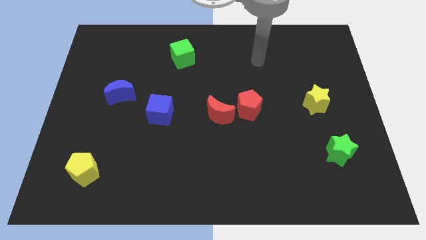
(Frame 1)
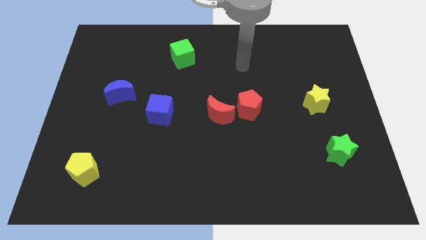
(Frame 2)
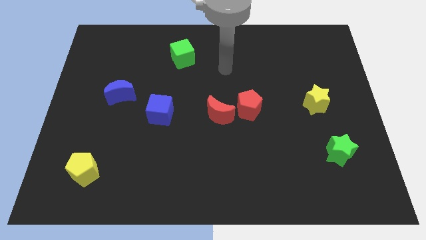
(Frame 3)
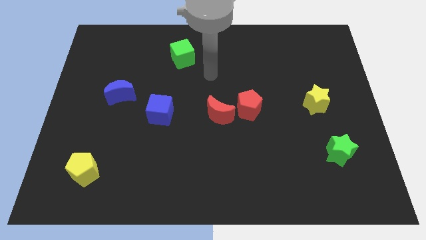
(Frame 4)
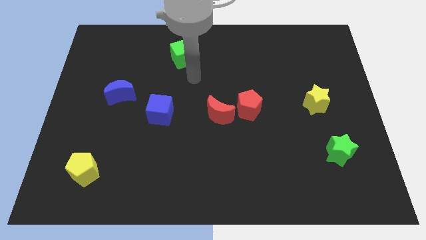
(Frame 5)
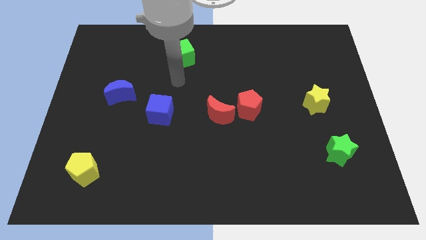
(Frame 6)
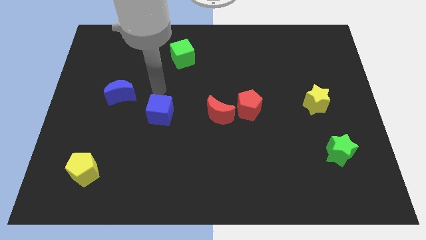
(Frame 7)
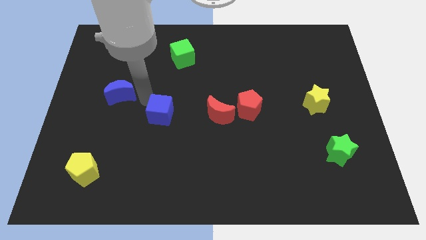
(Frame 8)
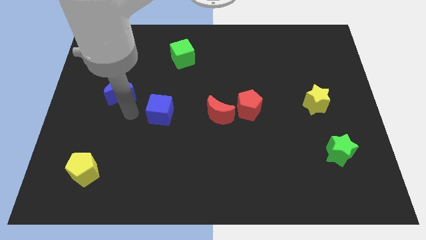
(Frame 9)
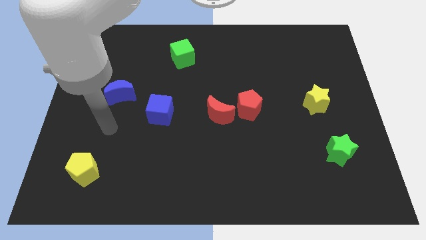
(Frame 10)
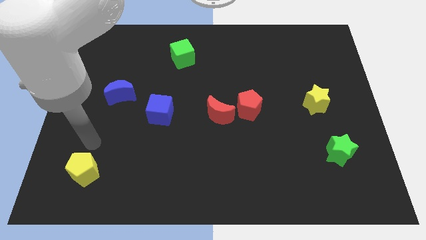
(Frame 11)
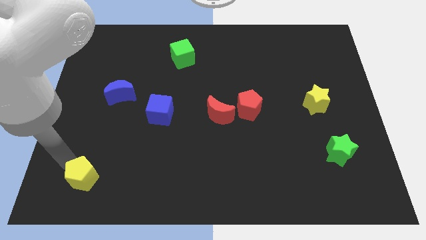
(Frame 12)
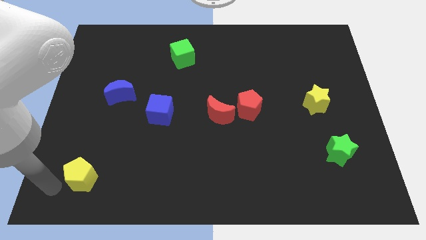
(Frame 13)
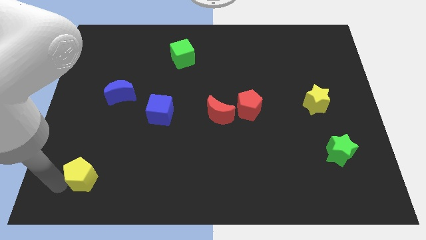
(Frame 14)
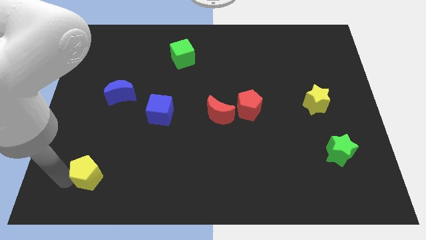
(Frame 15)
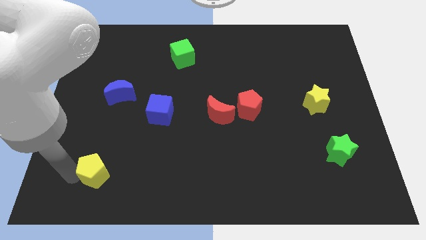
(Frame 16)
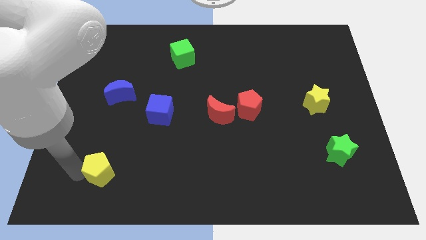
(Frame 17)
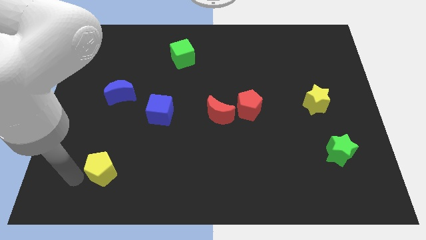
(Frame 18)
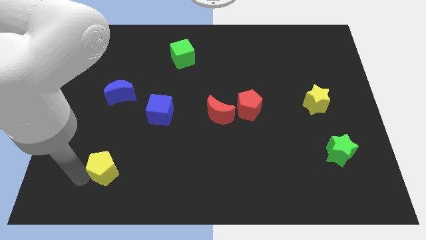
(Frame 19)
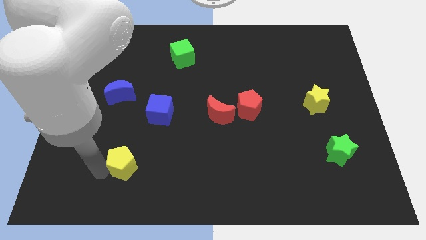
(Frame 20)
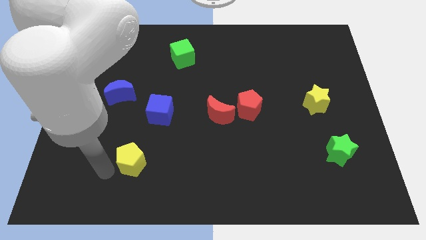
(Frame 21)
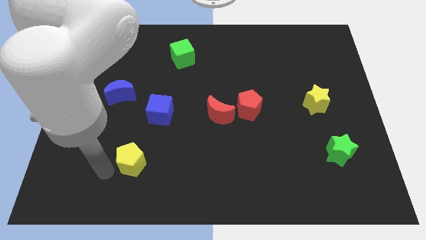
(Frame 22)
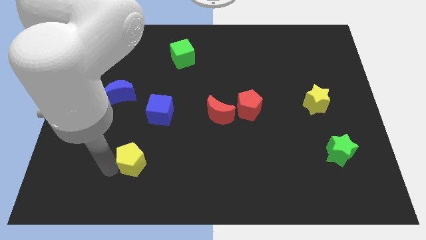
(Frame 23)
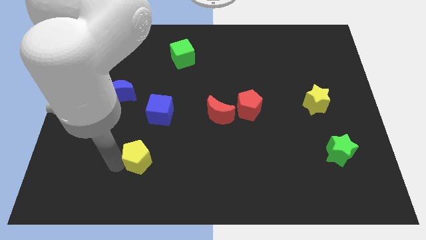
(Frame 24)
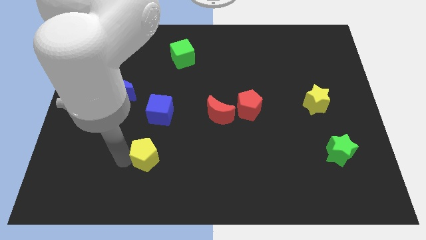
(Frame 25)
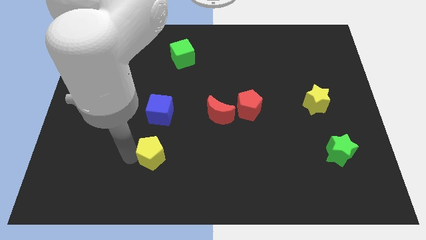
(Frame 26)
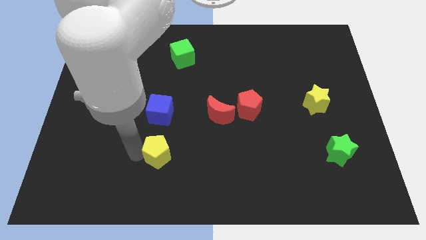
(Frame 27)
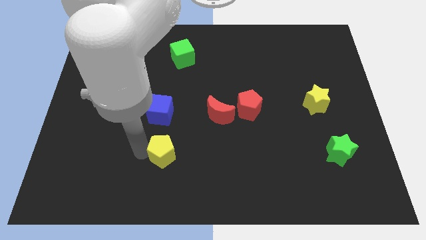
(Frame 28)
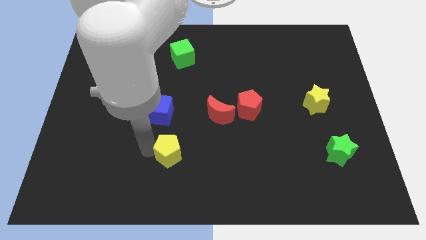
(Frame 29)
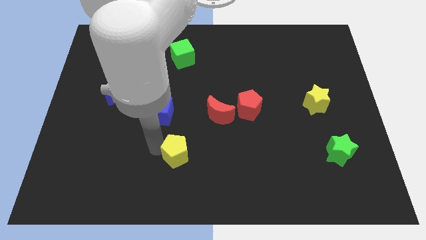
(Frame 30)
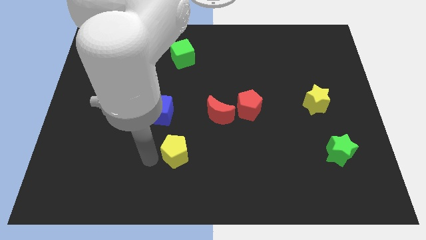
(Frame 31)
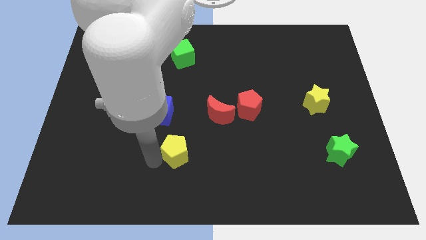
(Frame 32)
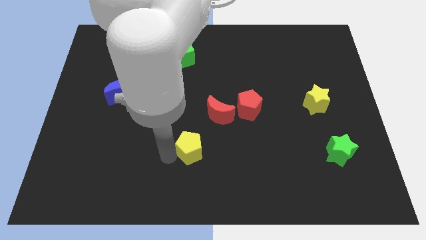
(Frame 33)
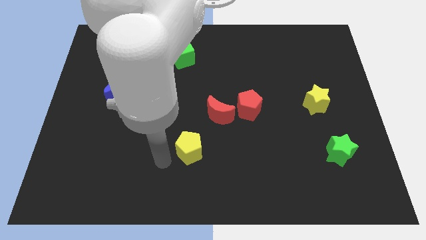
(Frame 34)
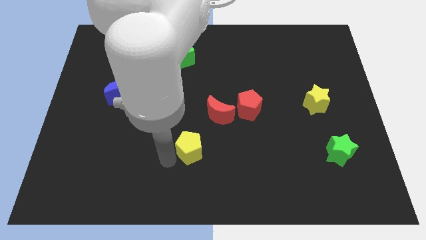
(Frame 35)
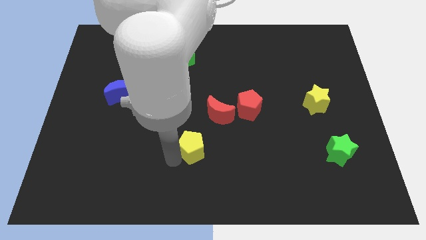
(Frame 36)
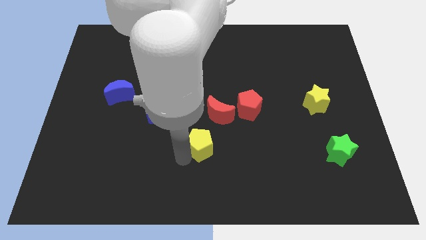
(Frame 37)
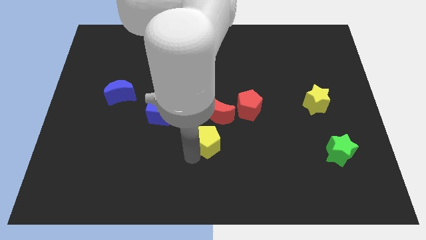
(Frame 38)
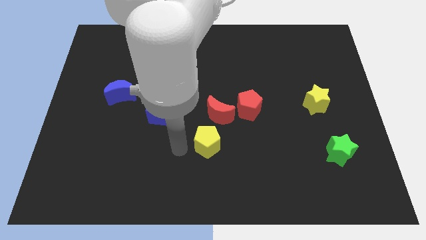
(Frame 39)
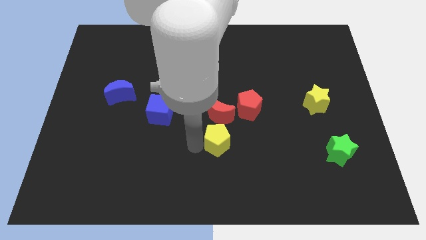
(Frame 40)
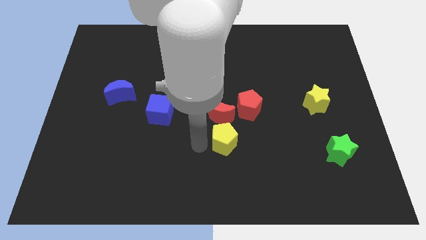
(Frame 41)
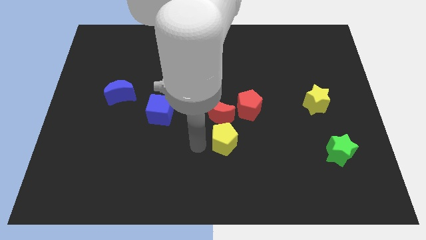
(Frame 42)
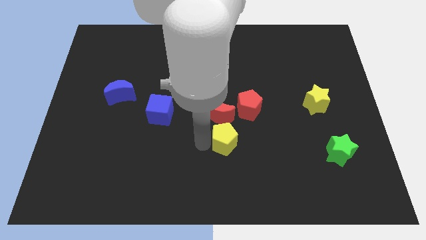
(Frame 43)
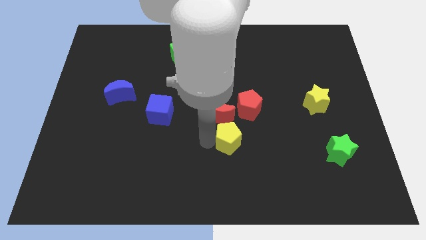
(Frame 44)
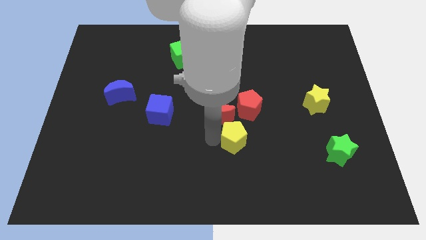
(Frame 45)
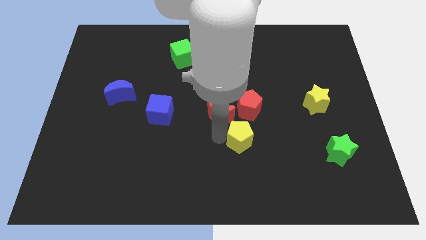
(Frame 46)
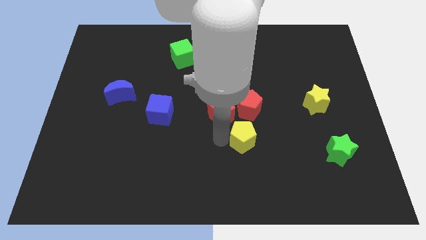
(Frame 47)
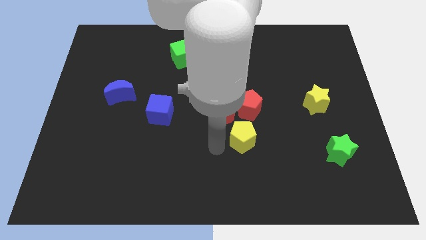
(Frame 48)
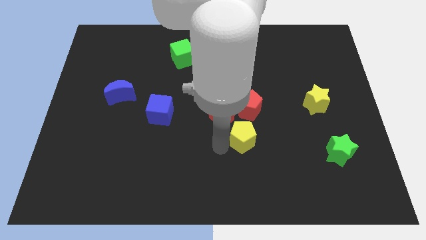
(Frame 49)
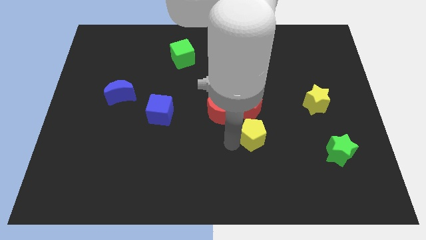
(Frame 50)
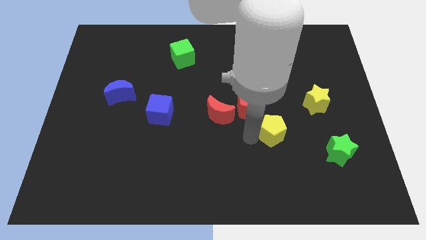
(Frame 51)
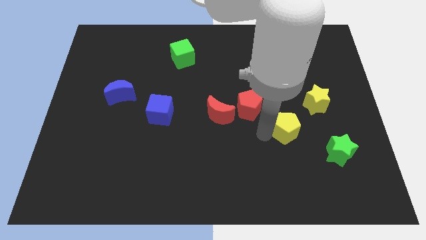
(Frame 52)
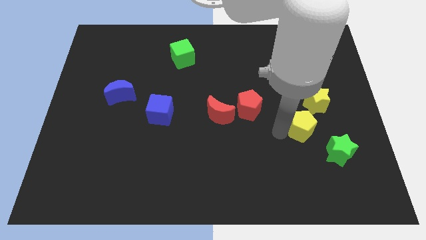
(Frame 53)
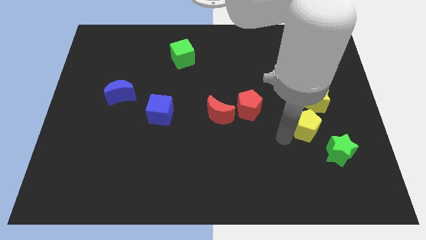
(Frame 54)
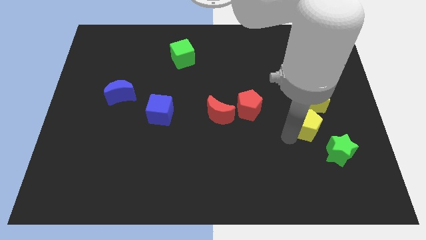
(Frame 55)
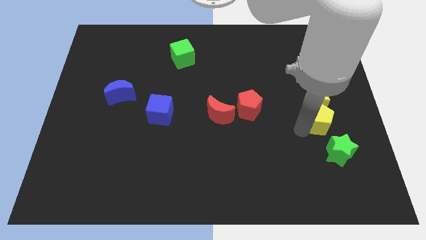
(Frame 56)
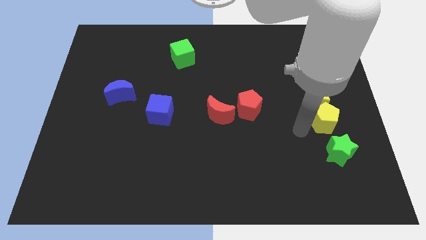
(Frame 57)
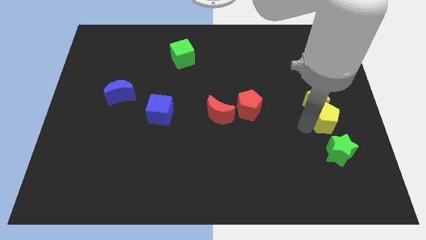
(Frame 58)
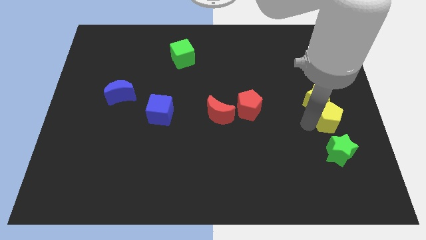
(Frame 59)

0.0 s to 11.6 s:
move the yellow pentagon to the center right
